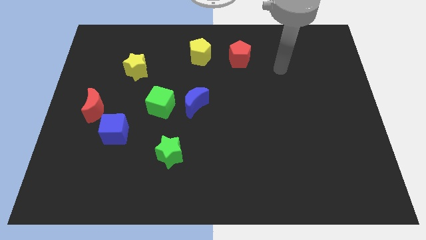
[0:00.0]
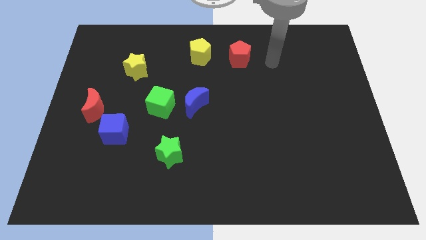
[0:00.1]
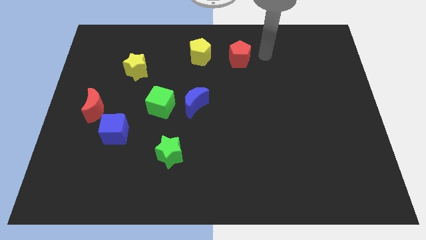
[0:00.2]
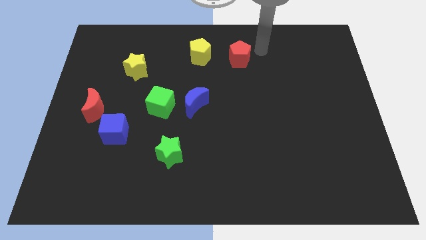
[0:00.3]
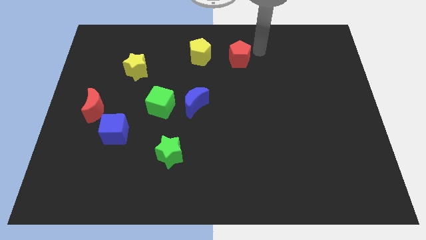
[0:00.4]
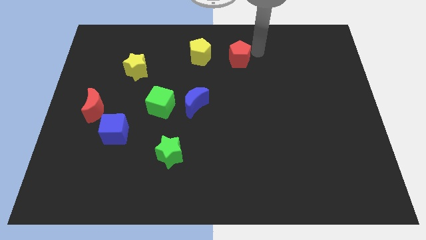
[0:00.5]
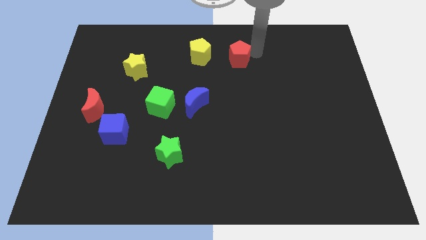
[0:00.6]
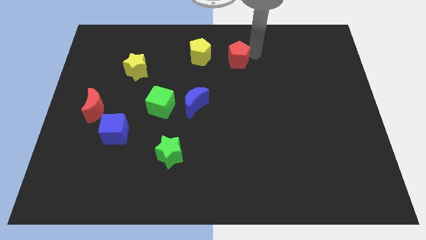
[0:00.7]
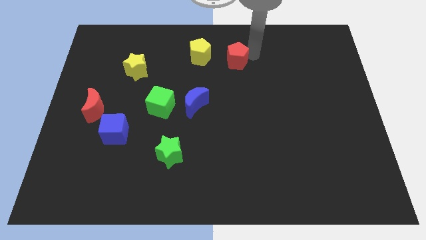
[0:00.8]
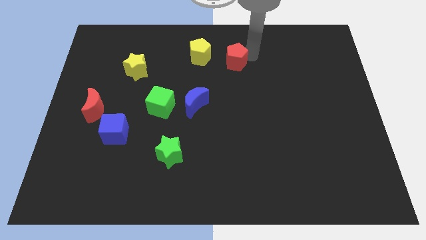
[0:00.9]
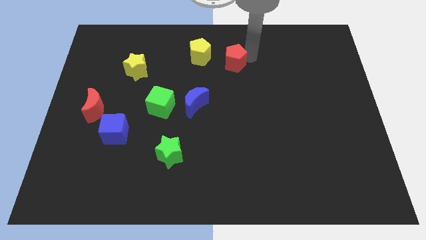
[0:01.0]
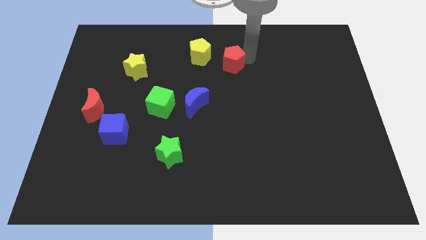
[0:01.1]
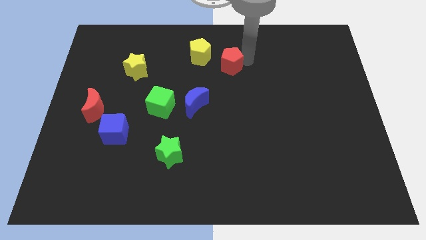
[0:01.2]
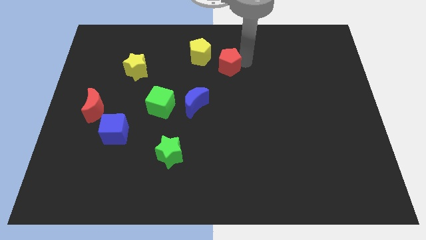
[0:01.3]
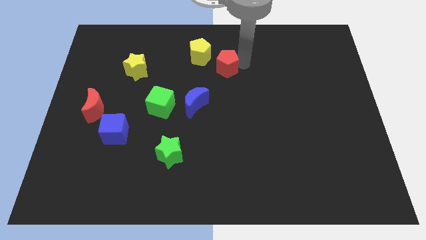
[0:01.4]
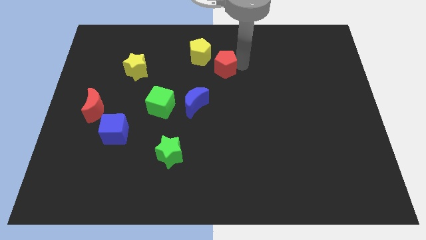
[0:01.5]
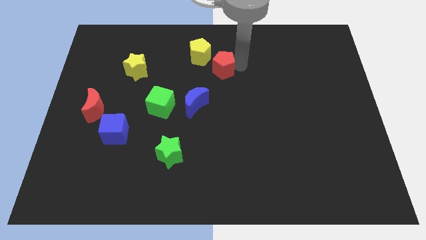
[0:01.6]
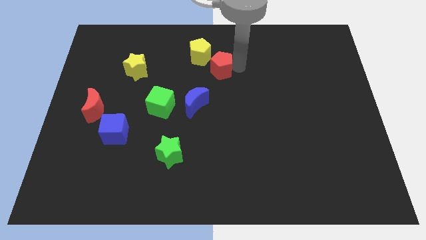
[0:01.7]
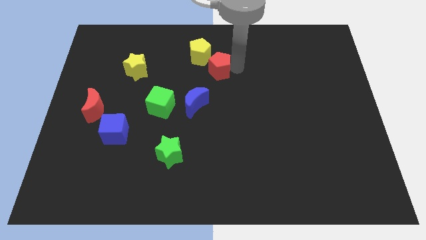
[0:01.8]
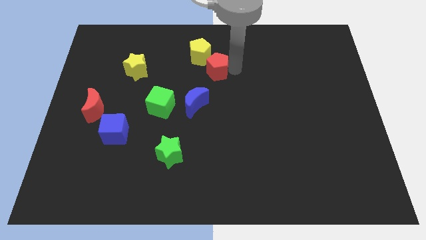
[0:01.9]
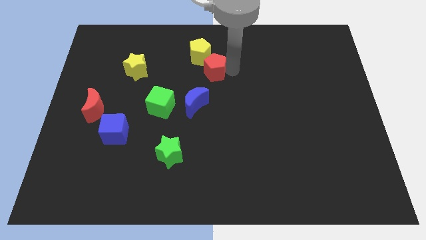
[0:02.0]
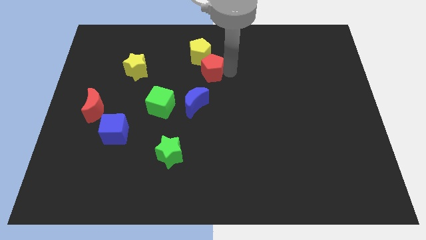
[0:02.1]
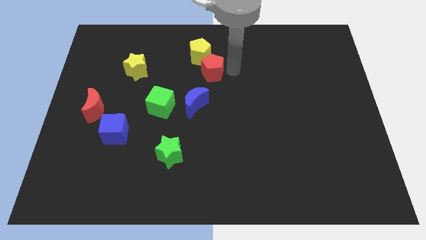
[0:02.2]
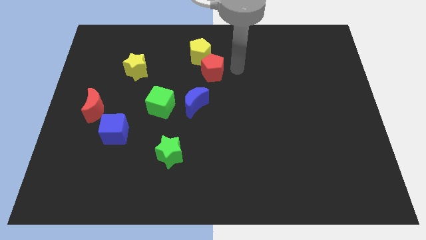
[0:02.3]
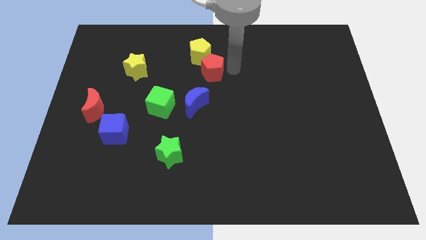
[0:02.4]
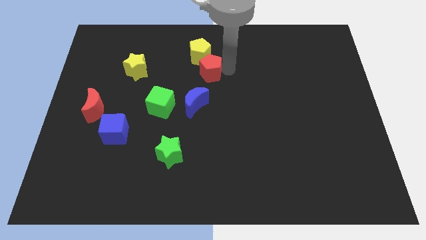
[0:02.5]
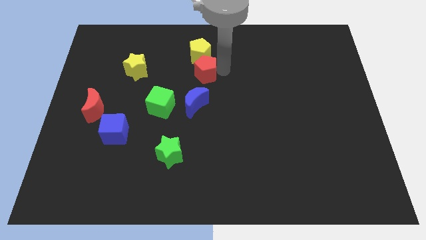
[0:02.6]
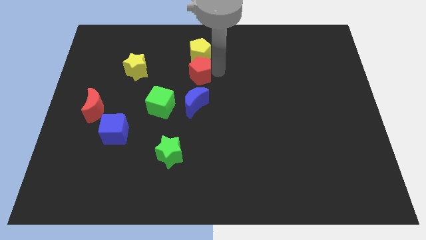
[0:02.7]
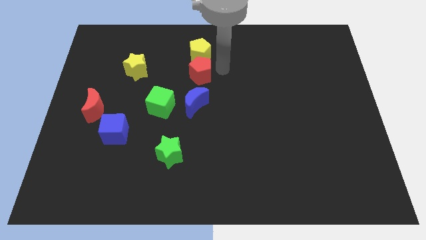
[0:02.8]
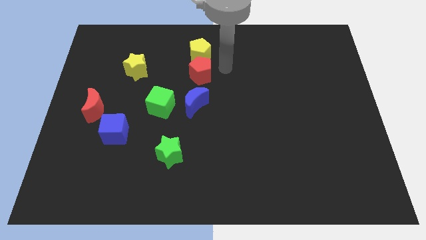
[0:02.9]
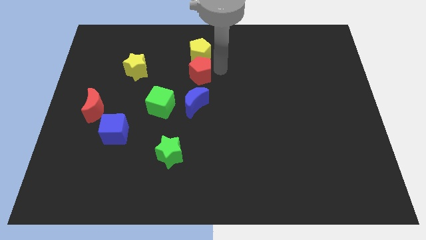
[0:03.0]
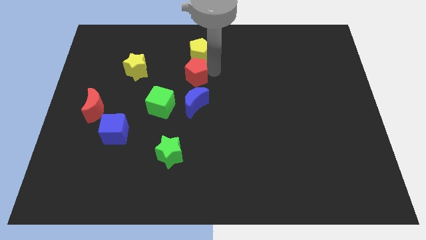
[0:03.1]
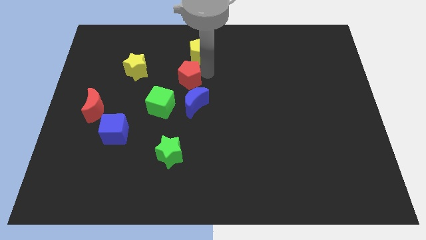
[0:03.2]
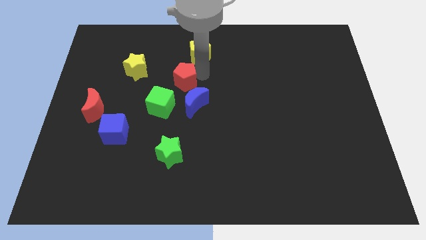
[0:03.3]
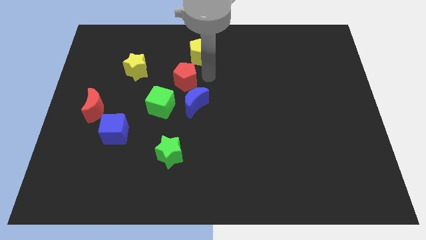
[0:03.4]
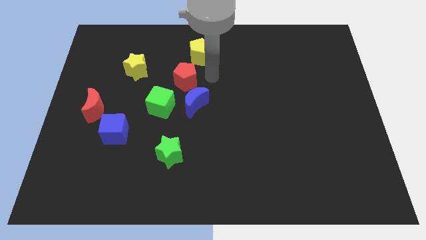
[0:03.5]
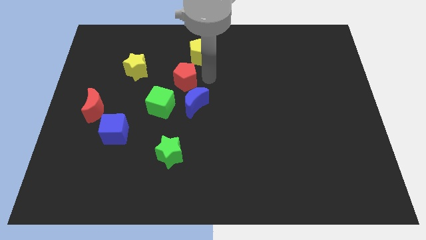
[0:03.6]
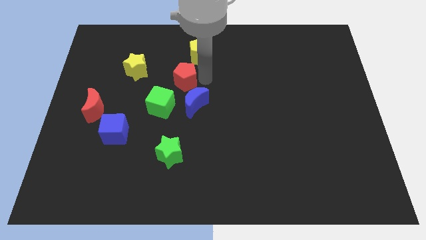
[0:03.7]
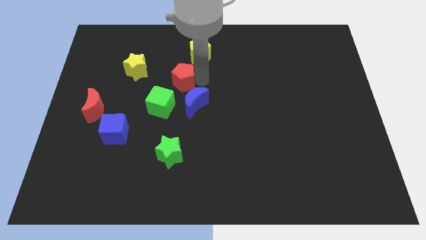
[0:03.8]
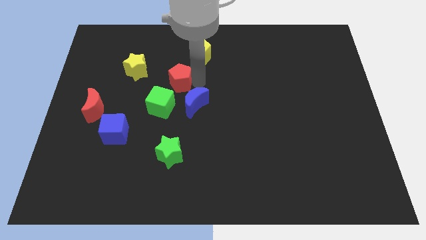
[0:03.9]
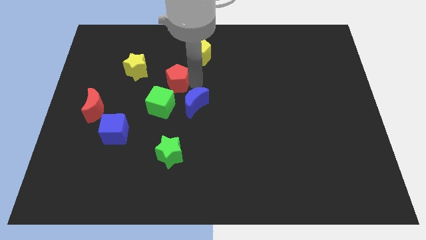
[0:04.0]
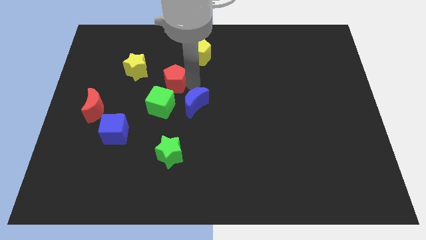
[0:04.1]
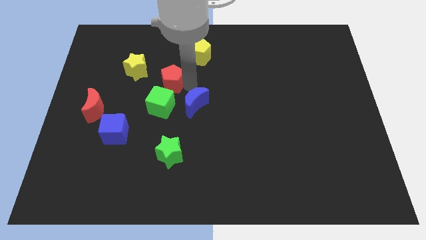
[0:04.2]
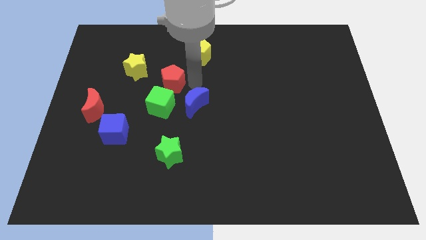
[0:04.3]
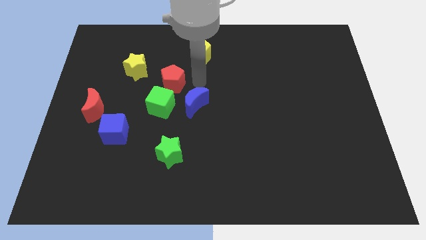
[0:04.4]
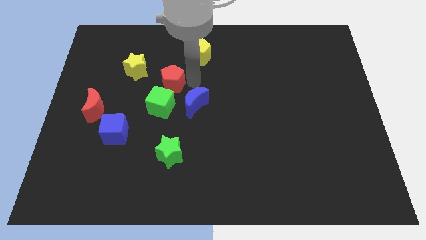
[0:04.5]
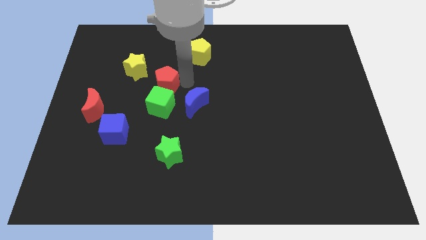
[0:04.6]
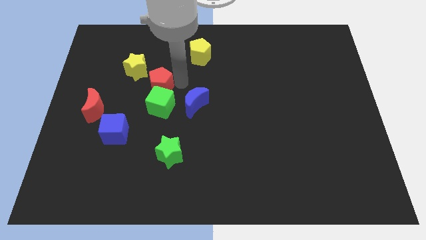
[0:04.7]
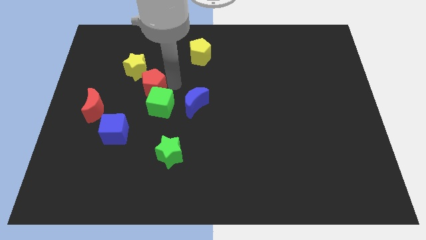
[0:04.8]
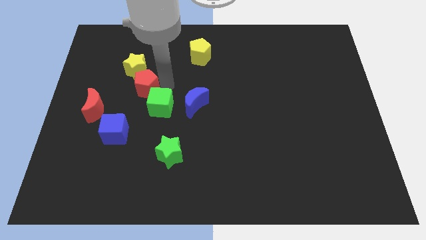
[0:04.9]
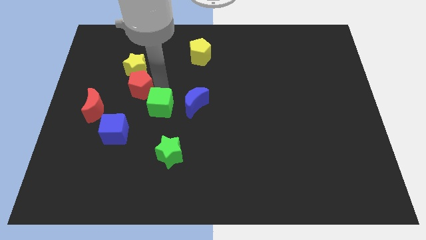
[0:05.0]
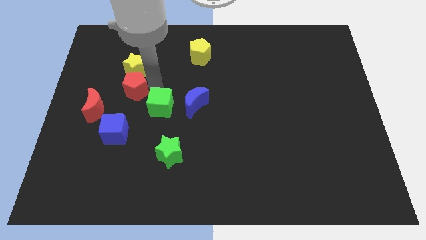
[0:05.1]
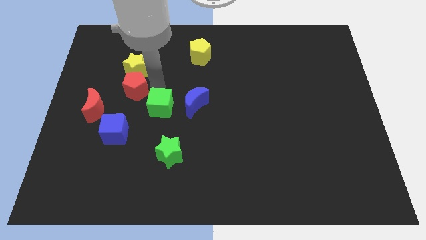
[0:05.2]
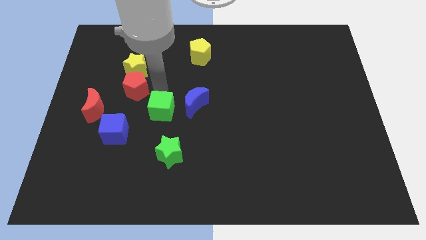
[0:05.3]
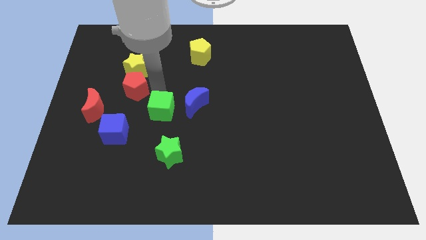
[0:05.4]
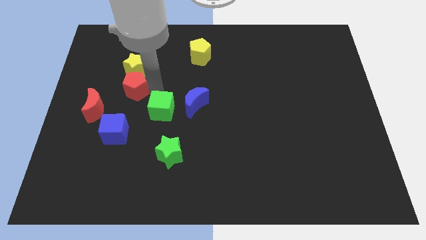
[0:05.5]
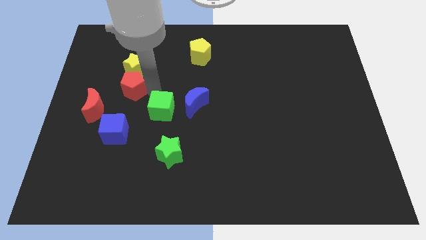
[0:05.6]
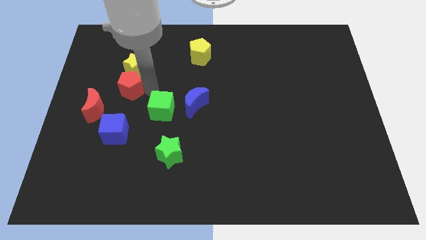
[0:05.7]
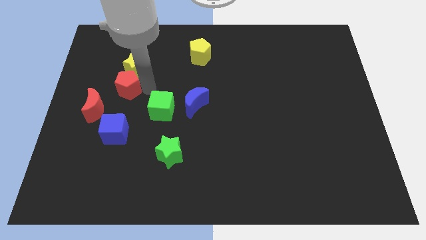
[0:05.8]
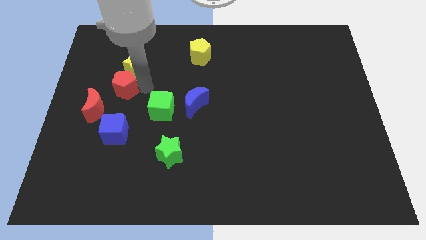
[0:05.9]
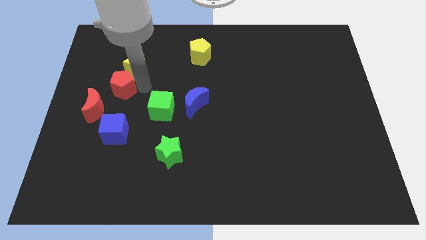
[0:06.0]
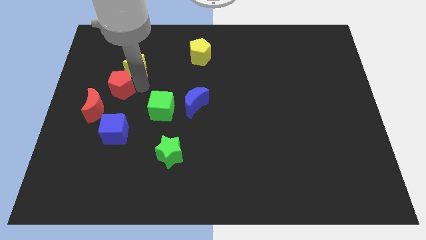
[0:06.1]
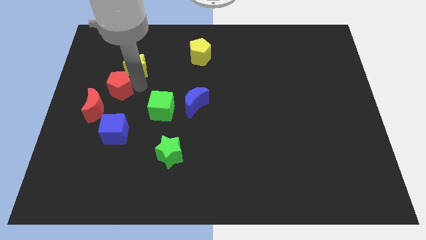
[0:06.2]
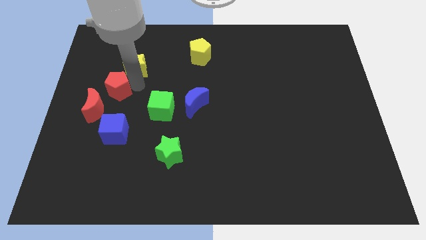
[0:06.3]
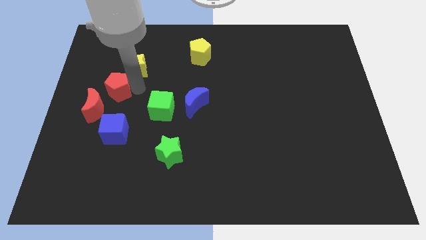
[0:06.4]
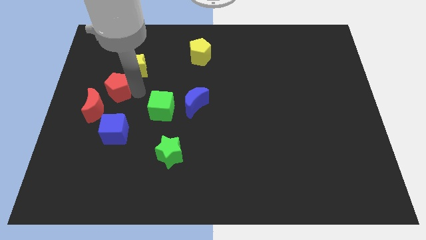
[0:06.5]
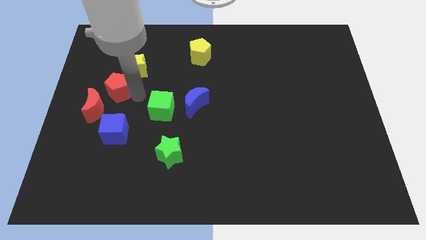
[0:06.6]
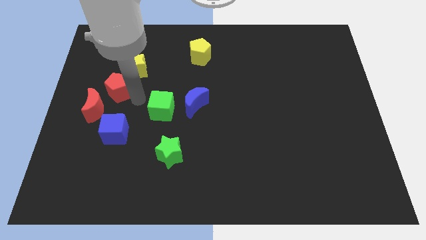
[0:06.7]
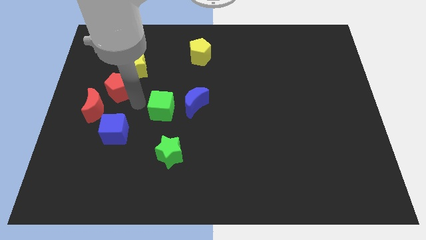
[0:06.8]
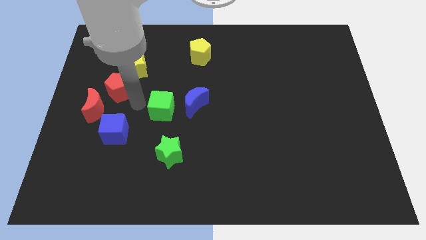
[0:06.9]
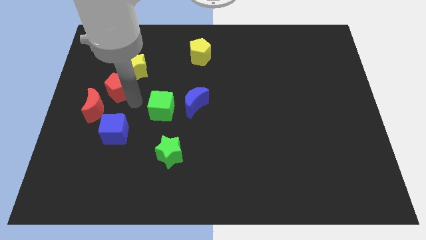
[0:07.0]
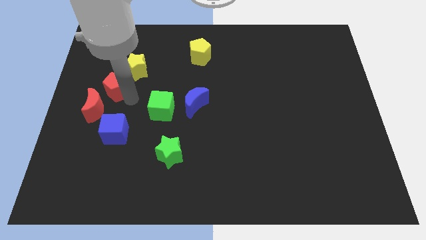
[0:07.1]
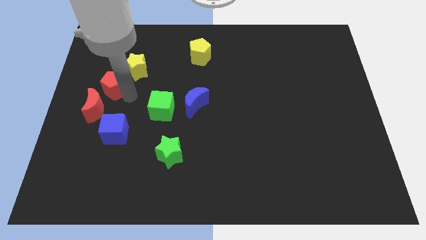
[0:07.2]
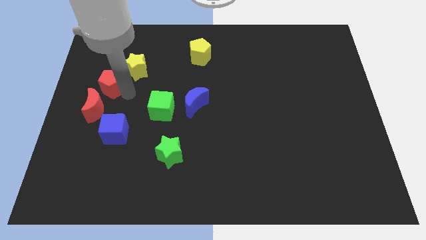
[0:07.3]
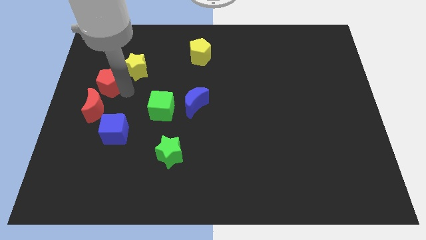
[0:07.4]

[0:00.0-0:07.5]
push the red pentagon to the left side
